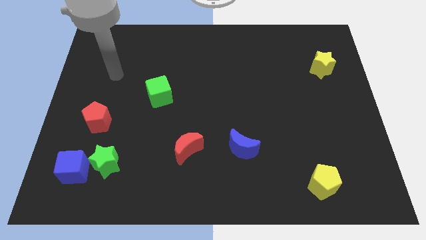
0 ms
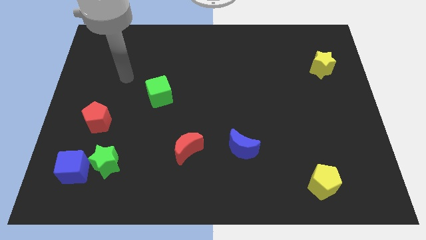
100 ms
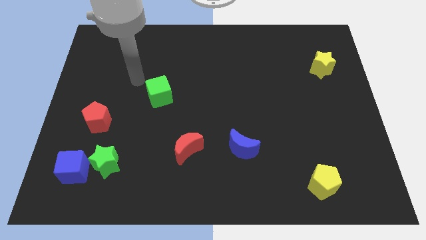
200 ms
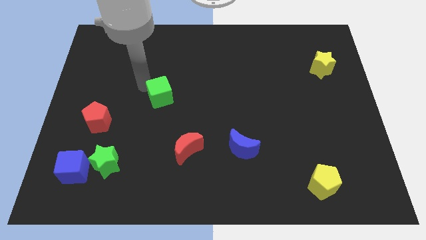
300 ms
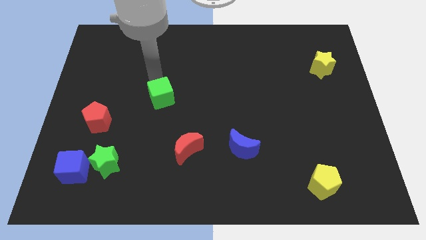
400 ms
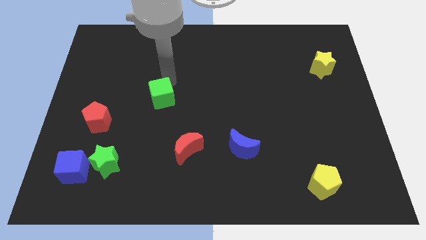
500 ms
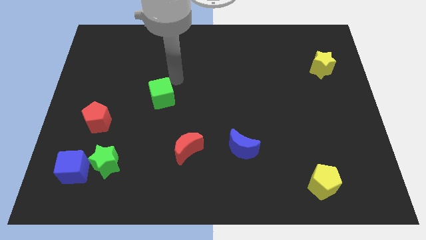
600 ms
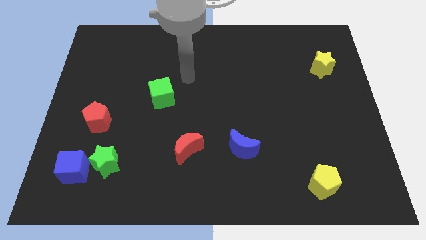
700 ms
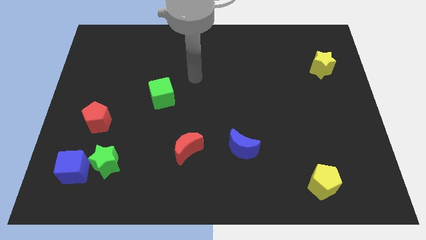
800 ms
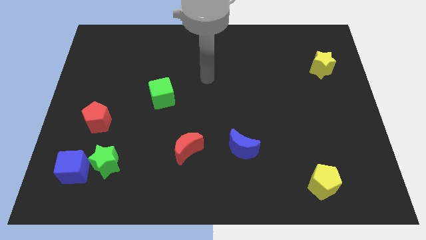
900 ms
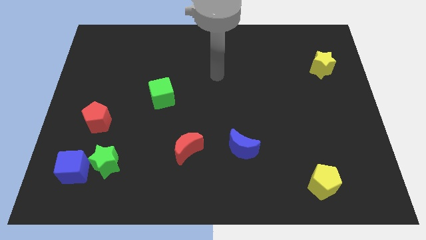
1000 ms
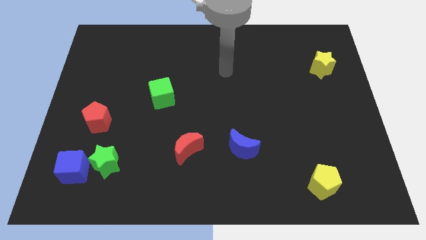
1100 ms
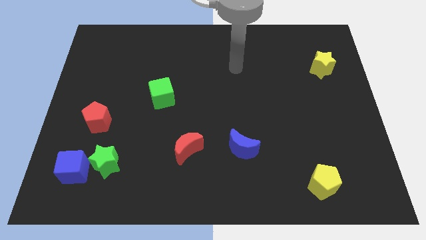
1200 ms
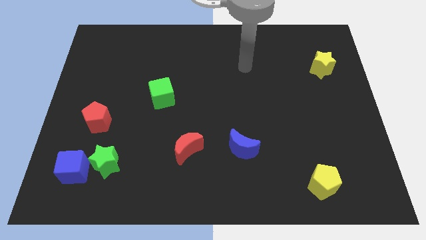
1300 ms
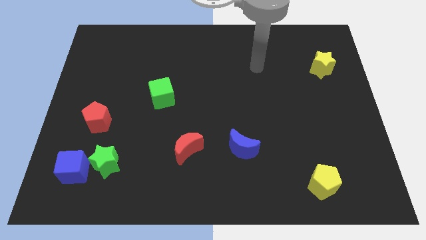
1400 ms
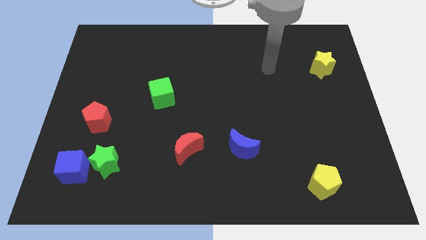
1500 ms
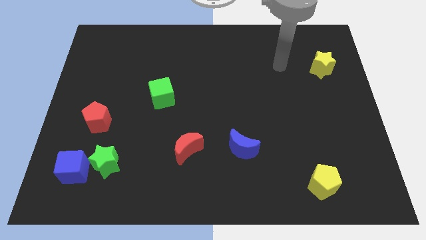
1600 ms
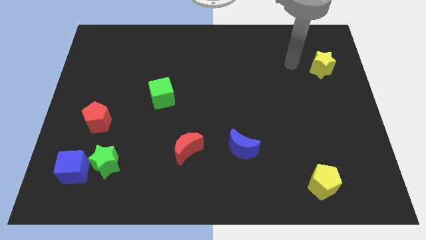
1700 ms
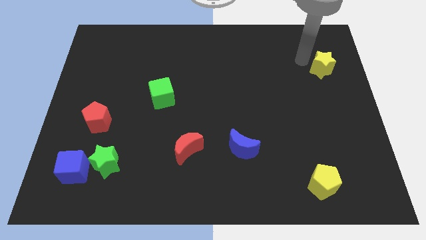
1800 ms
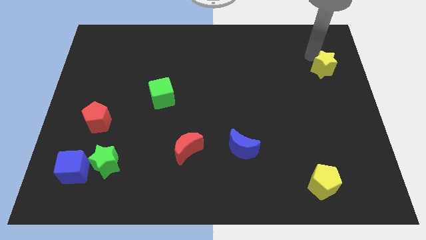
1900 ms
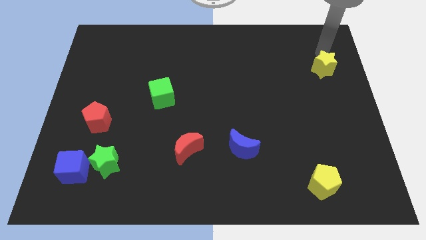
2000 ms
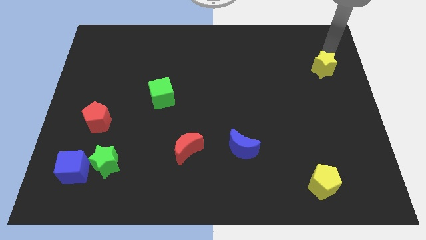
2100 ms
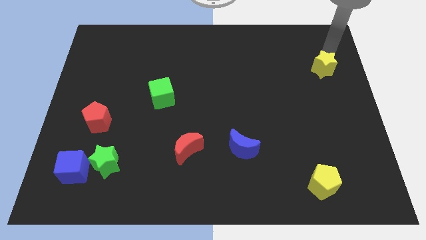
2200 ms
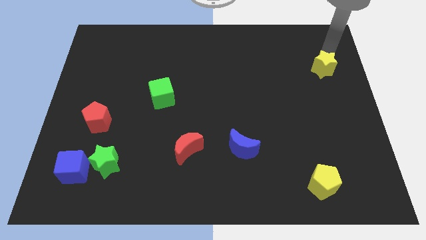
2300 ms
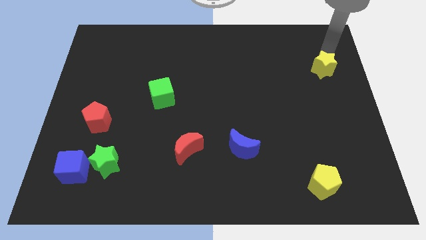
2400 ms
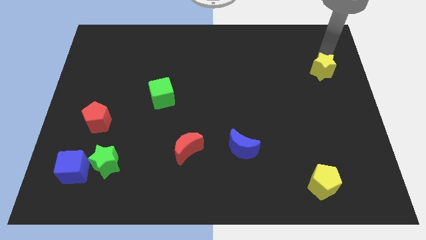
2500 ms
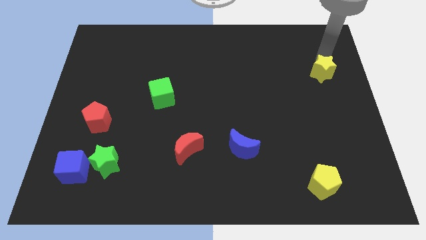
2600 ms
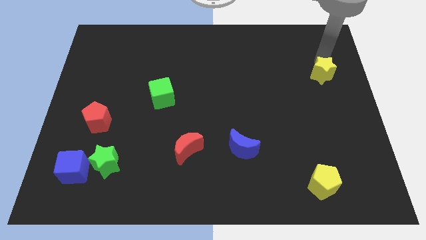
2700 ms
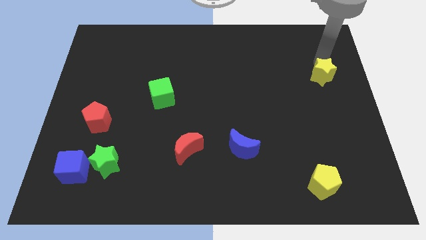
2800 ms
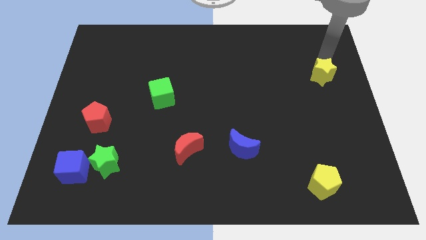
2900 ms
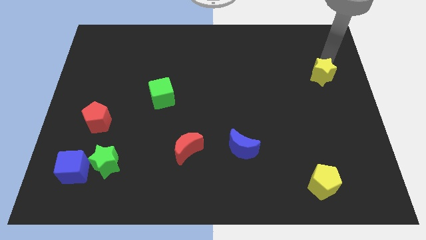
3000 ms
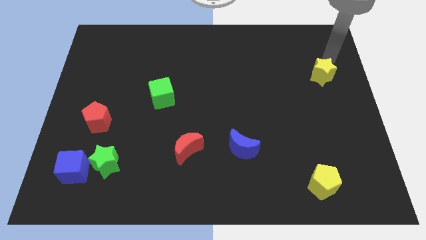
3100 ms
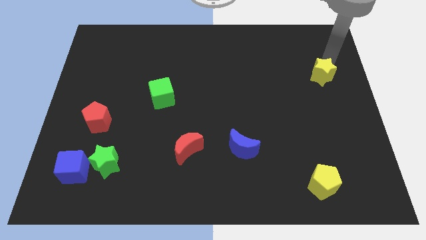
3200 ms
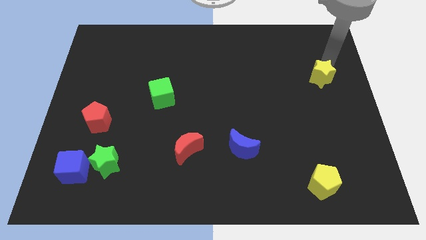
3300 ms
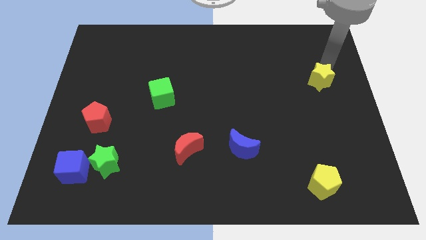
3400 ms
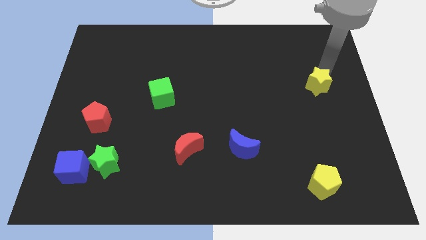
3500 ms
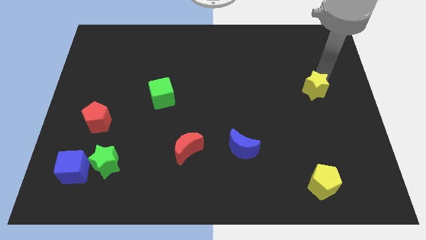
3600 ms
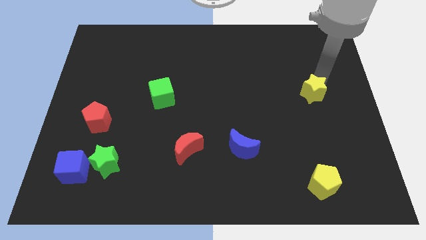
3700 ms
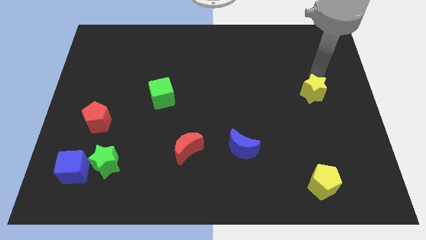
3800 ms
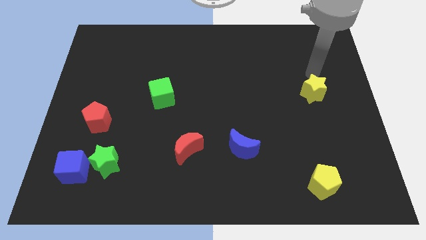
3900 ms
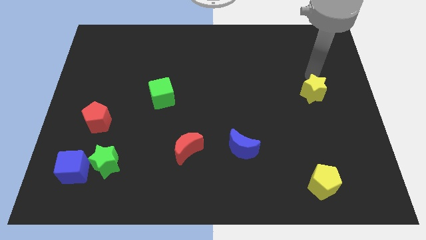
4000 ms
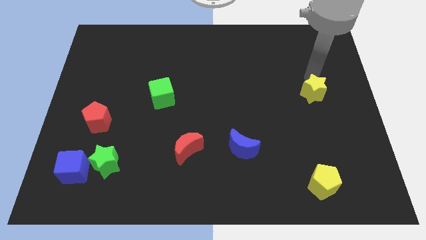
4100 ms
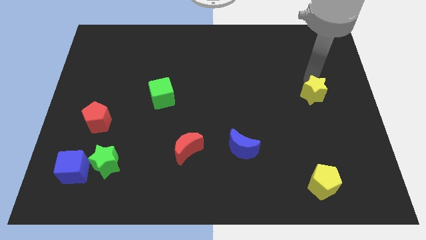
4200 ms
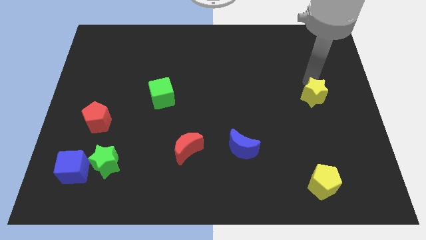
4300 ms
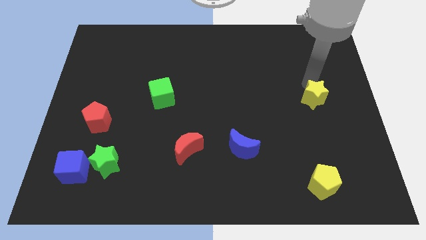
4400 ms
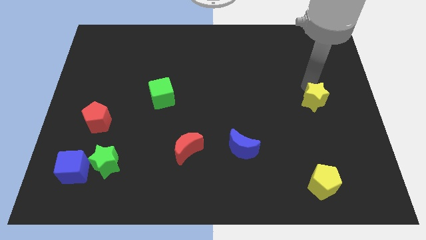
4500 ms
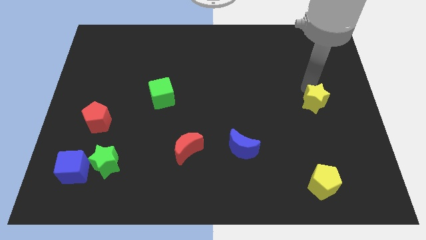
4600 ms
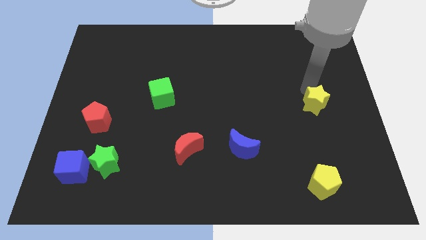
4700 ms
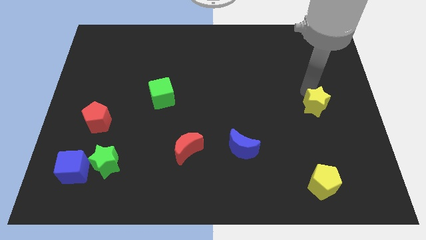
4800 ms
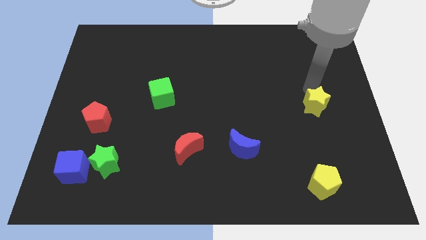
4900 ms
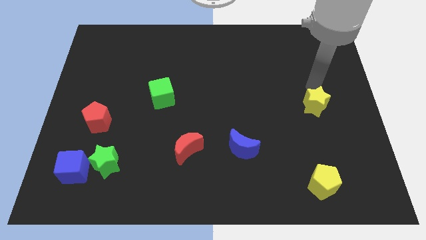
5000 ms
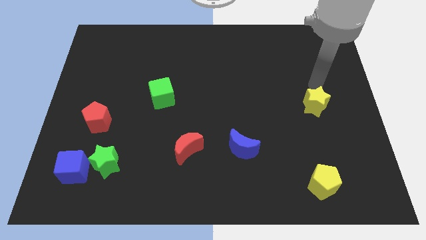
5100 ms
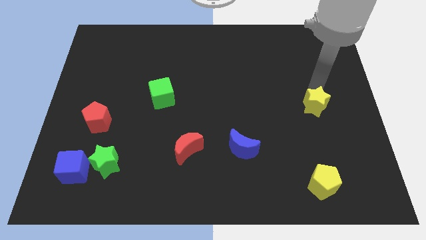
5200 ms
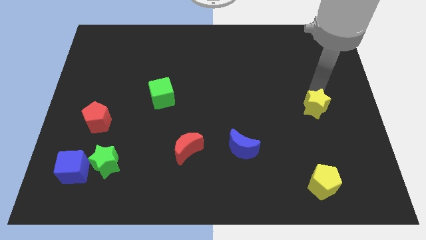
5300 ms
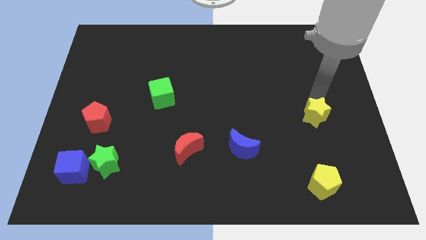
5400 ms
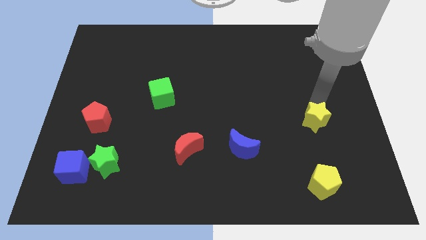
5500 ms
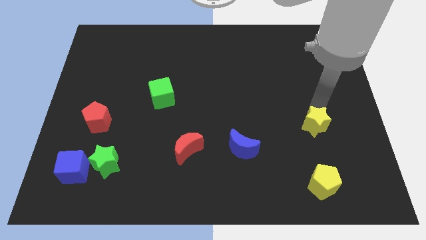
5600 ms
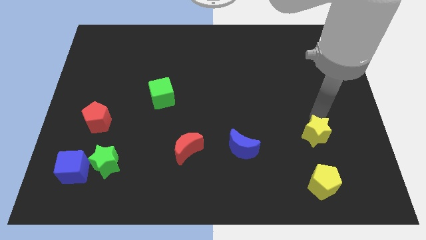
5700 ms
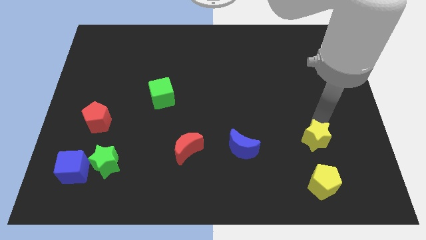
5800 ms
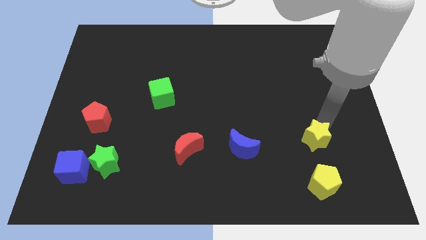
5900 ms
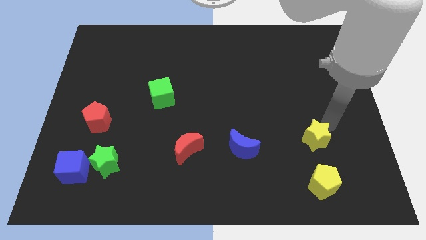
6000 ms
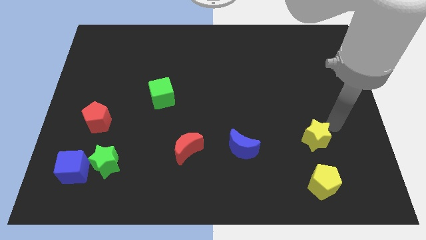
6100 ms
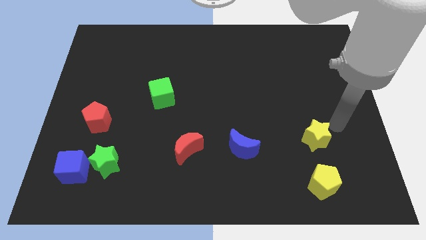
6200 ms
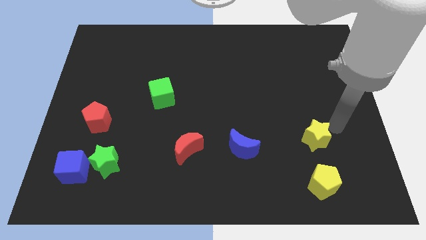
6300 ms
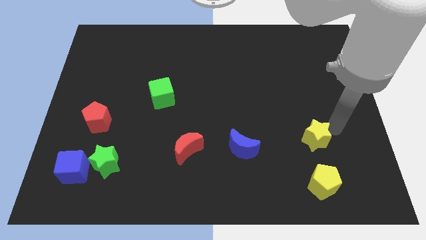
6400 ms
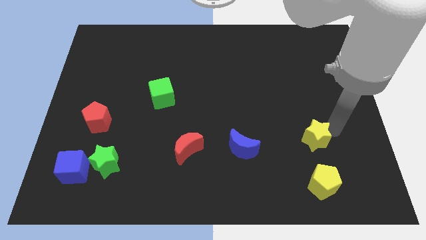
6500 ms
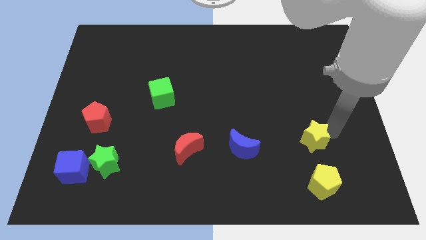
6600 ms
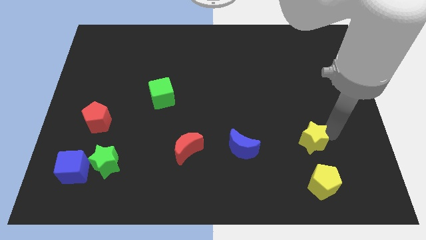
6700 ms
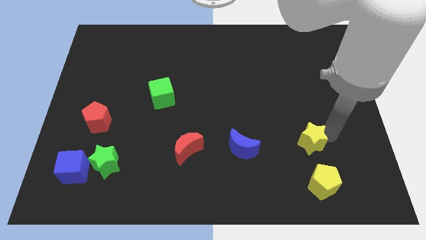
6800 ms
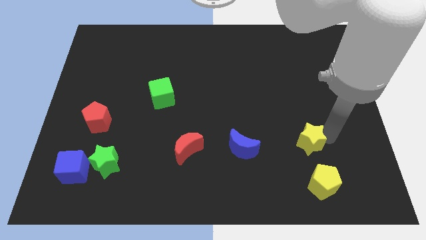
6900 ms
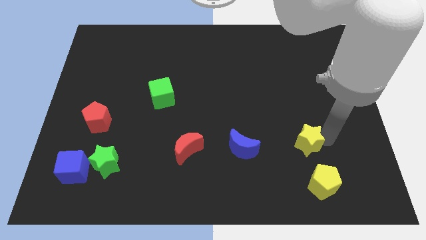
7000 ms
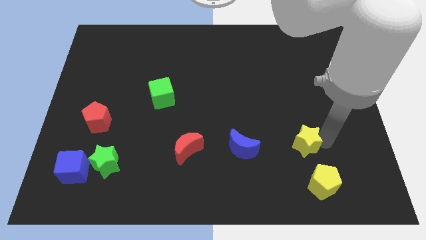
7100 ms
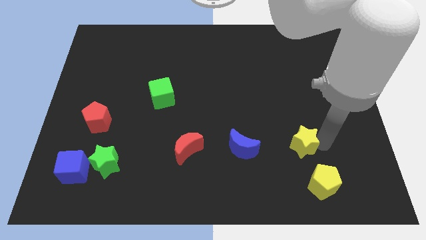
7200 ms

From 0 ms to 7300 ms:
slide the yellow star to the top left of the yellow pentagon
